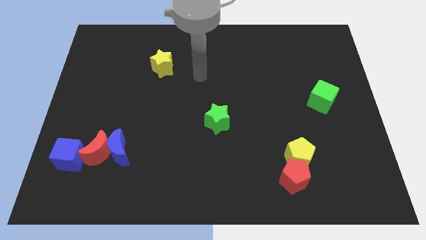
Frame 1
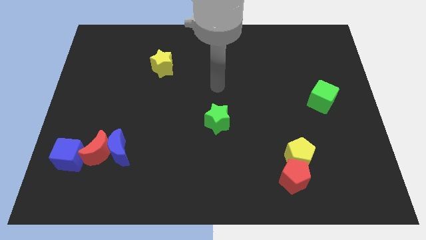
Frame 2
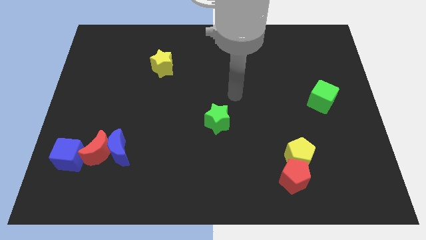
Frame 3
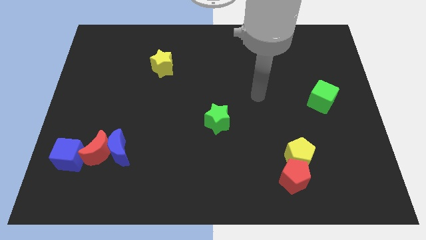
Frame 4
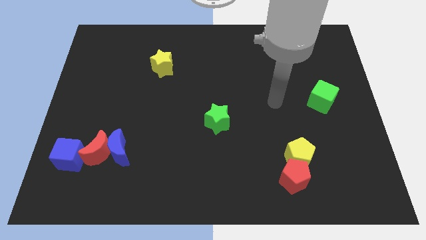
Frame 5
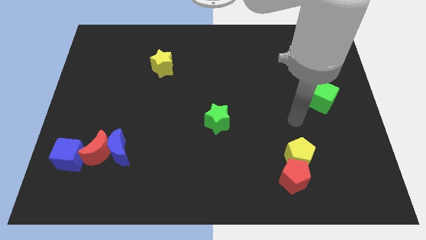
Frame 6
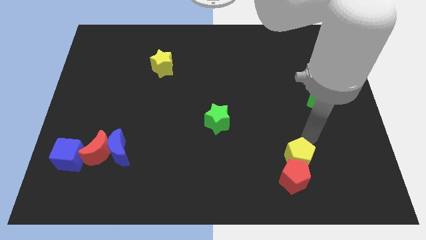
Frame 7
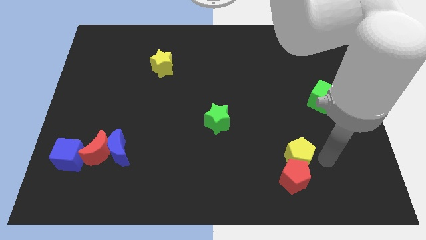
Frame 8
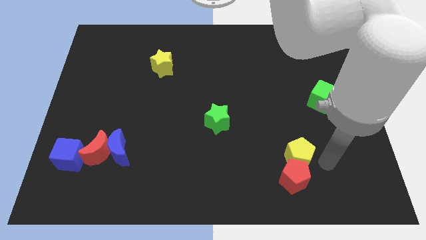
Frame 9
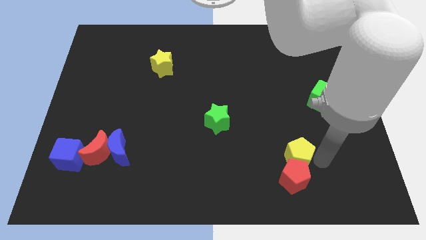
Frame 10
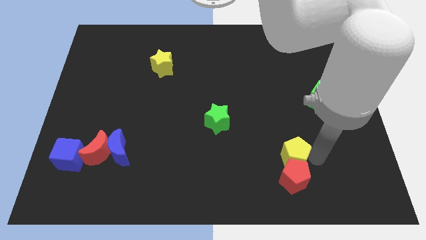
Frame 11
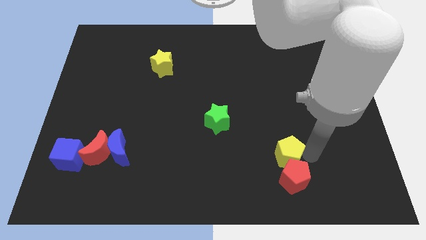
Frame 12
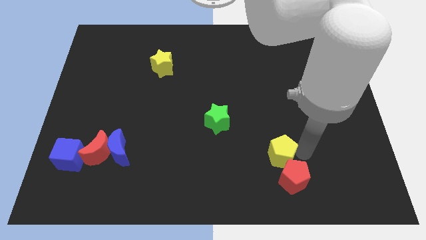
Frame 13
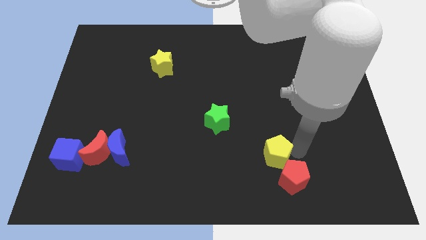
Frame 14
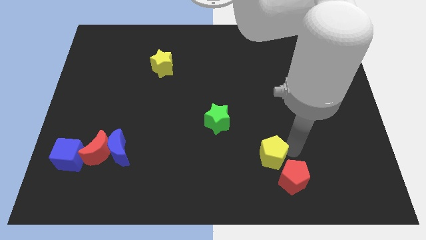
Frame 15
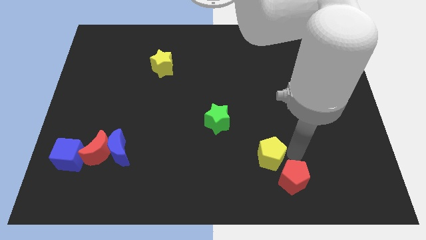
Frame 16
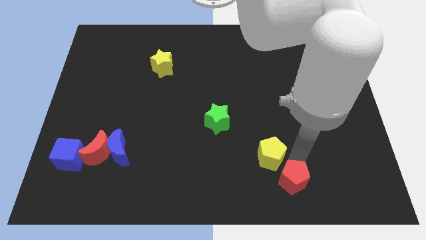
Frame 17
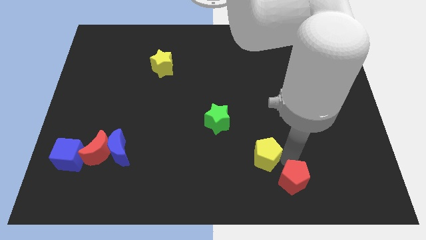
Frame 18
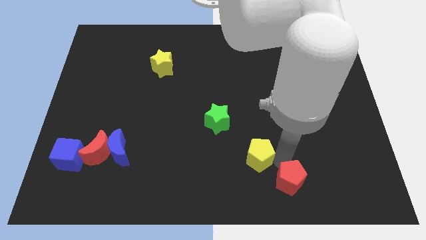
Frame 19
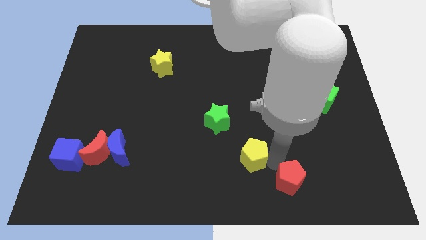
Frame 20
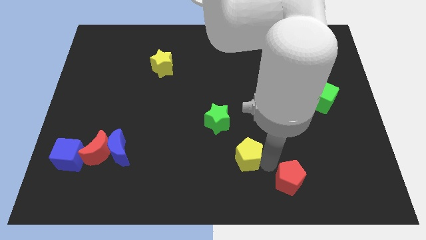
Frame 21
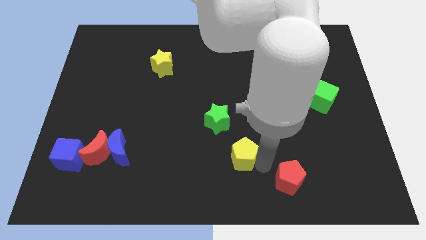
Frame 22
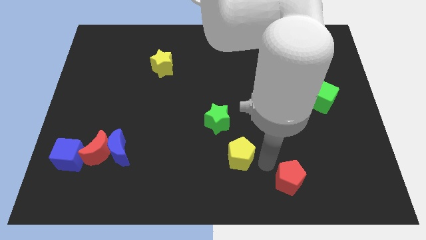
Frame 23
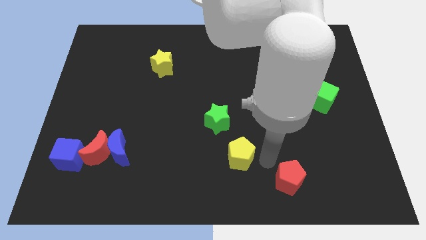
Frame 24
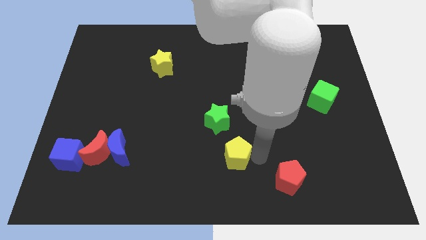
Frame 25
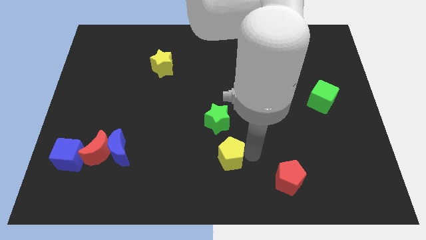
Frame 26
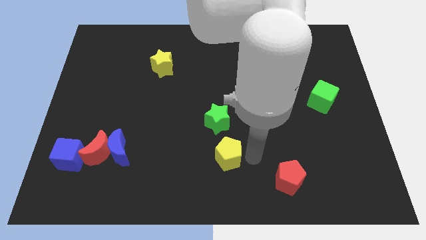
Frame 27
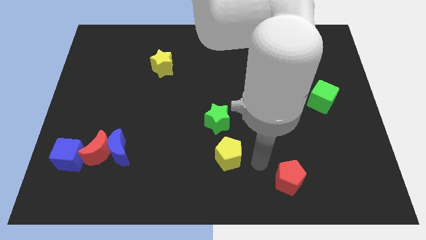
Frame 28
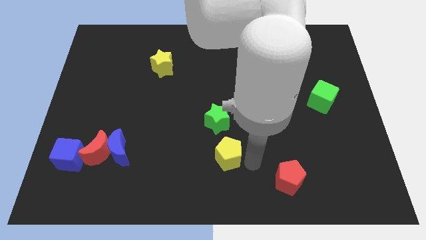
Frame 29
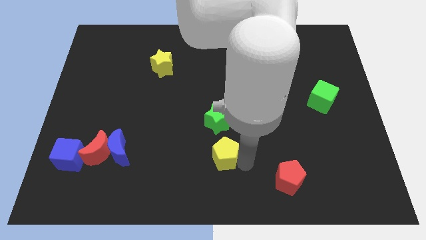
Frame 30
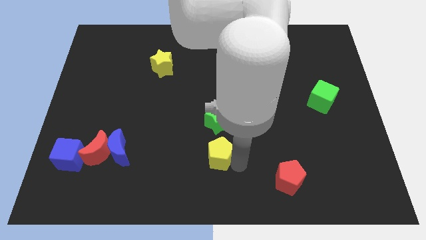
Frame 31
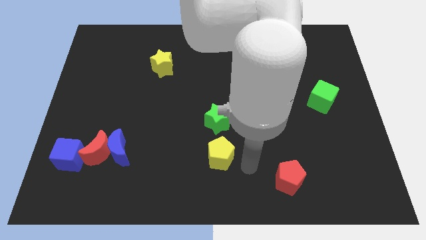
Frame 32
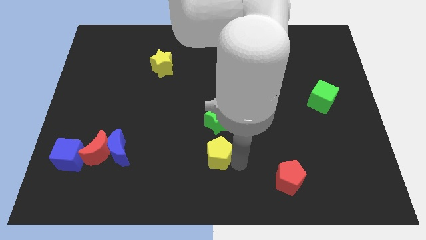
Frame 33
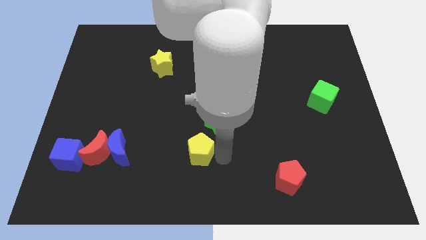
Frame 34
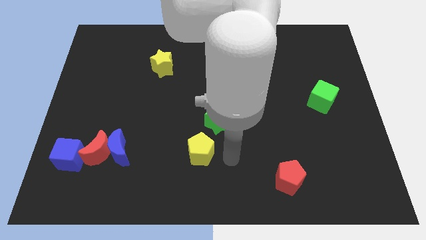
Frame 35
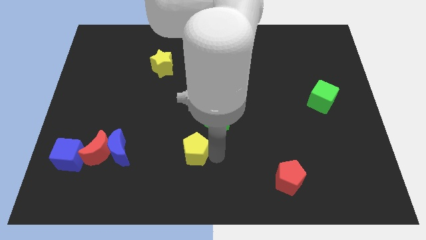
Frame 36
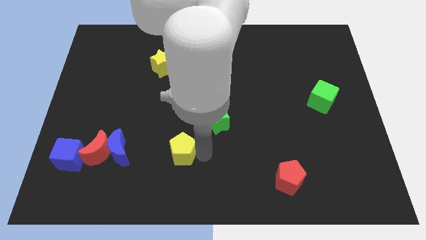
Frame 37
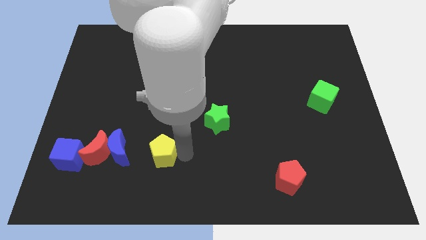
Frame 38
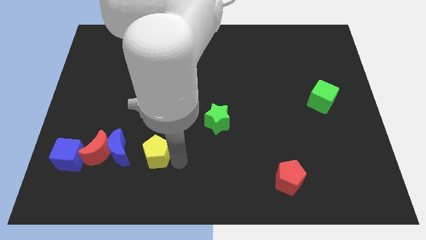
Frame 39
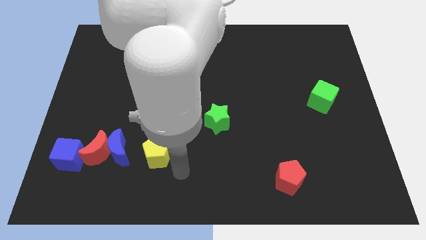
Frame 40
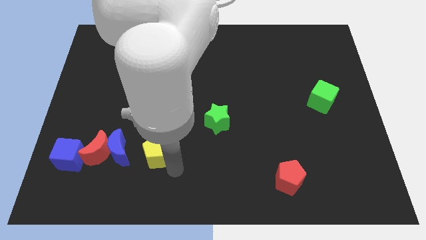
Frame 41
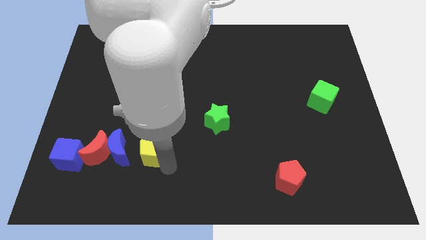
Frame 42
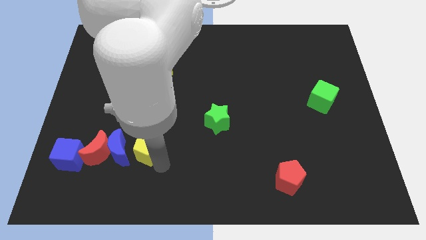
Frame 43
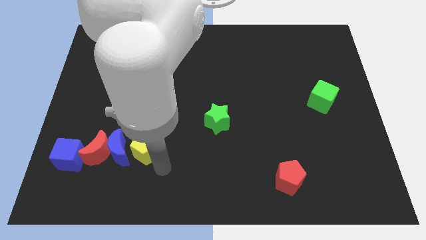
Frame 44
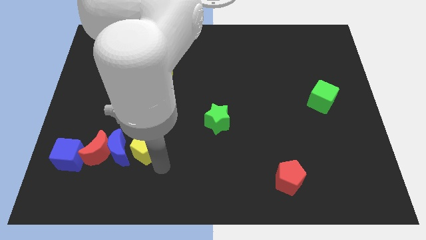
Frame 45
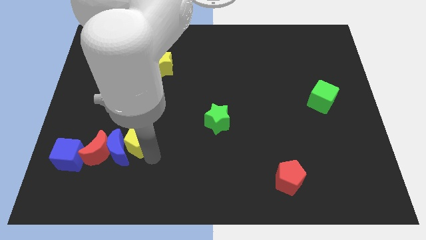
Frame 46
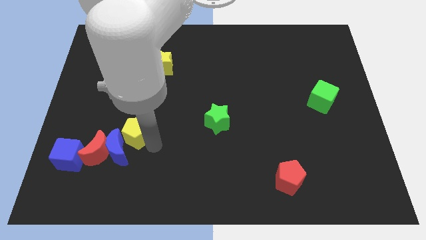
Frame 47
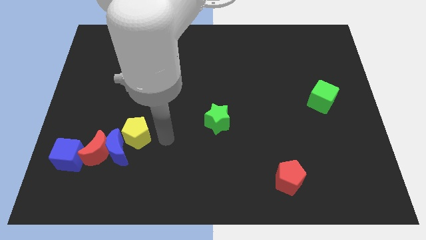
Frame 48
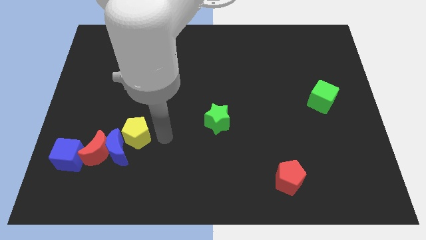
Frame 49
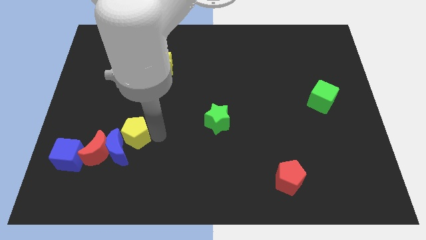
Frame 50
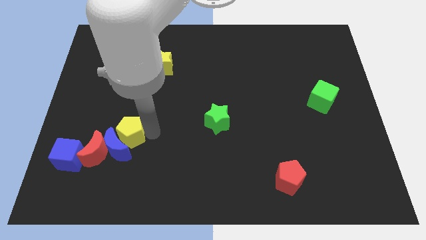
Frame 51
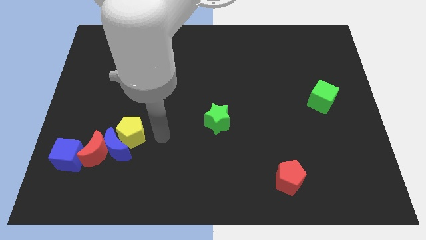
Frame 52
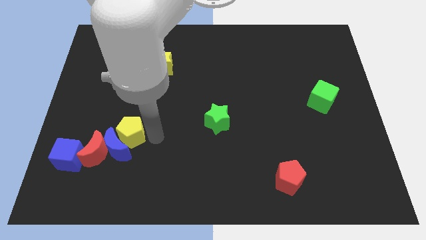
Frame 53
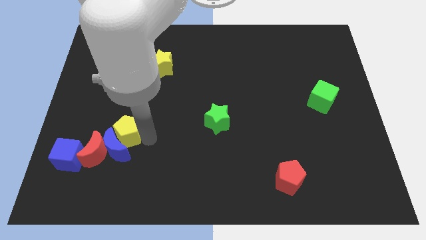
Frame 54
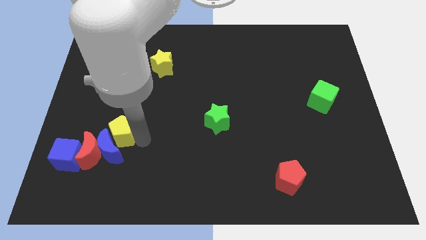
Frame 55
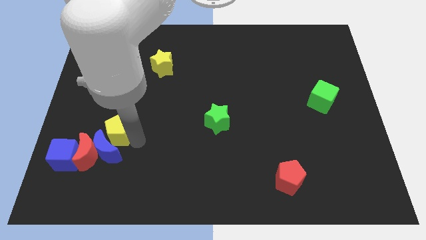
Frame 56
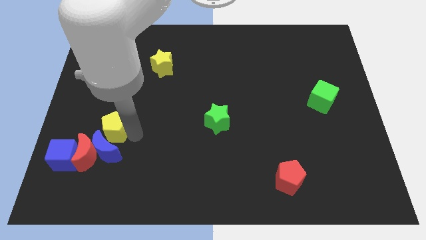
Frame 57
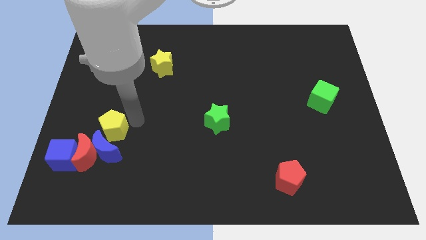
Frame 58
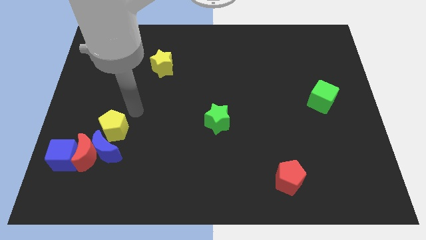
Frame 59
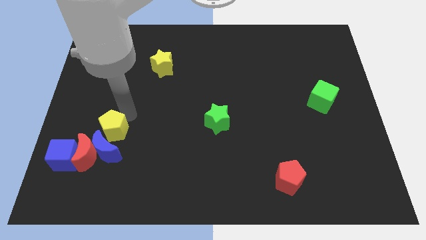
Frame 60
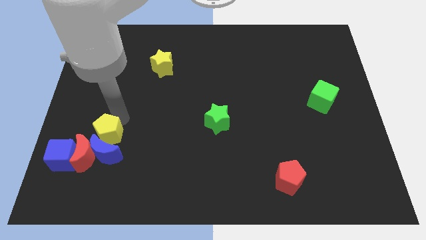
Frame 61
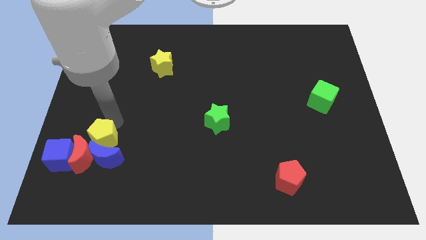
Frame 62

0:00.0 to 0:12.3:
move the yellow pentagon towards the red moon

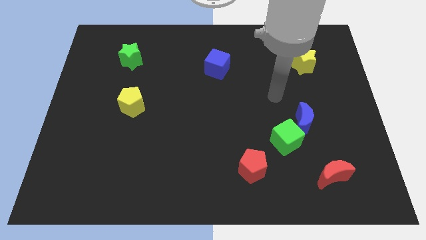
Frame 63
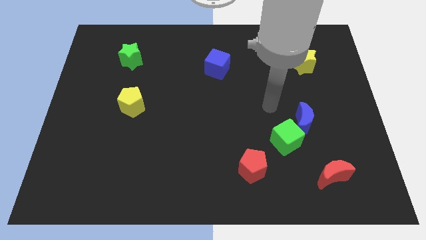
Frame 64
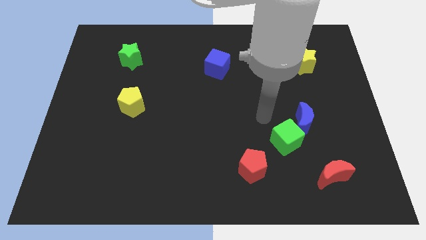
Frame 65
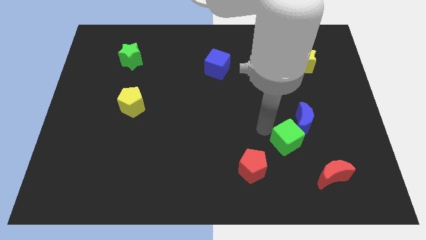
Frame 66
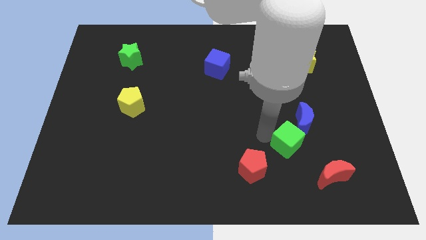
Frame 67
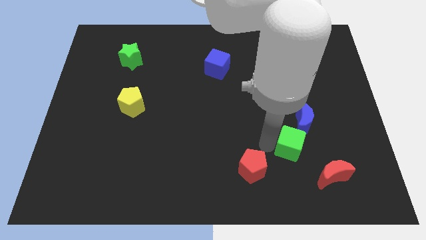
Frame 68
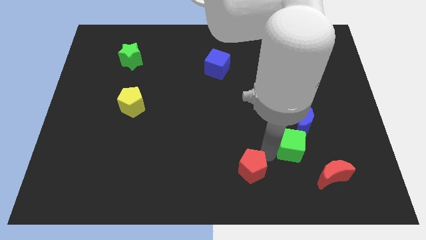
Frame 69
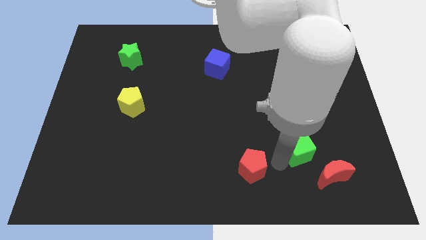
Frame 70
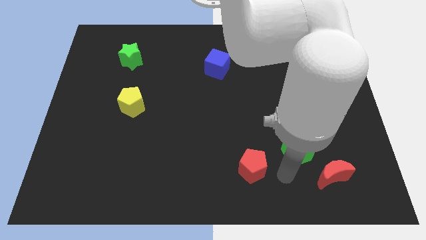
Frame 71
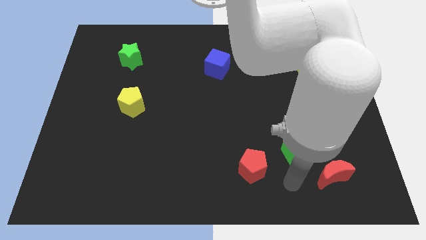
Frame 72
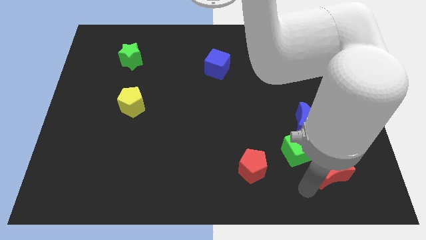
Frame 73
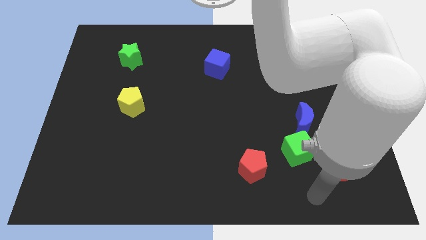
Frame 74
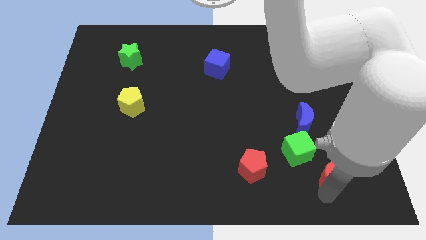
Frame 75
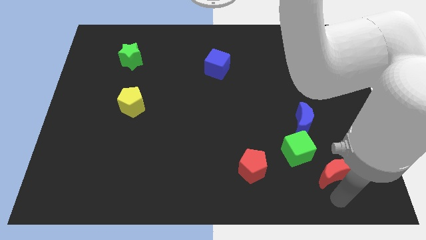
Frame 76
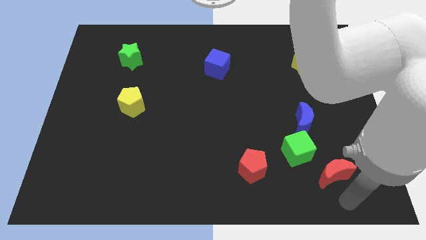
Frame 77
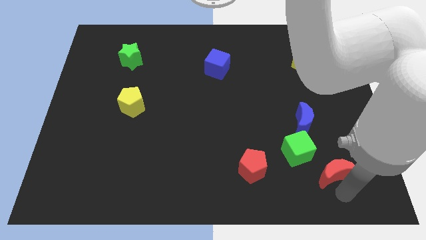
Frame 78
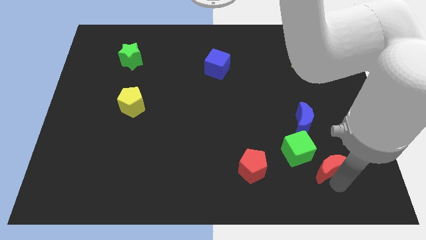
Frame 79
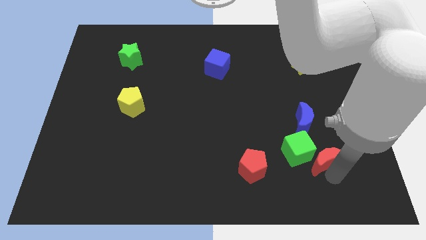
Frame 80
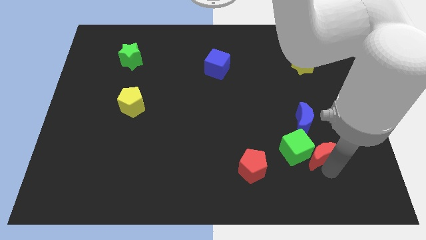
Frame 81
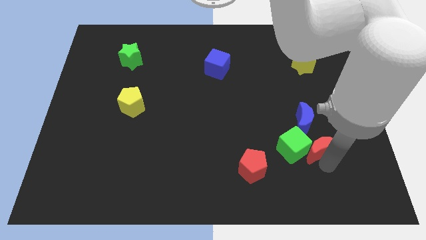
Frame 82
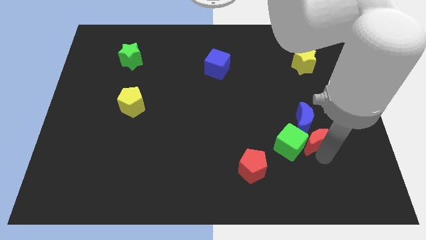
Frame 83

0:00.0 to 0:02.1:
slide the red moon next to the blue moon

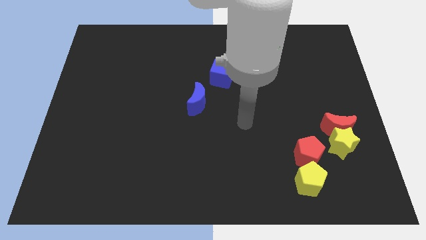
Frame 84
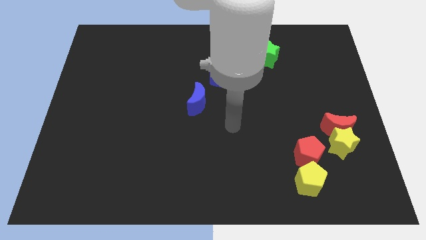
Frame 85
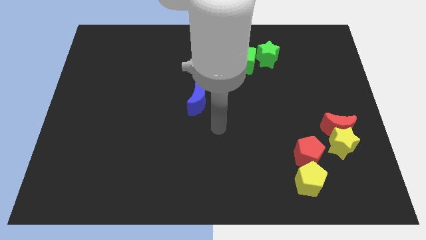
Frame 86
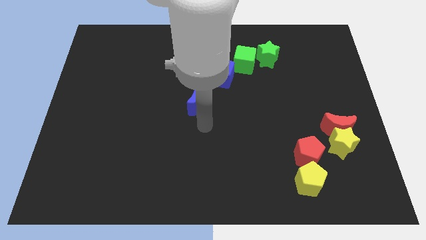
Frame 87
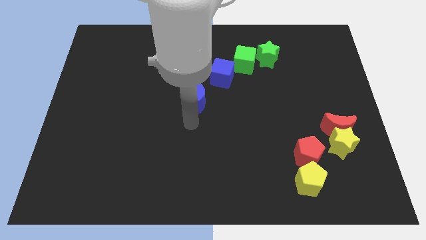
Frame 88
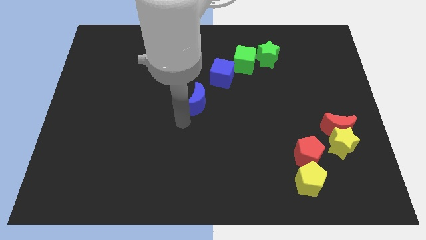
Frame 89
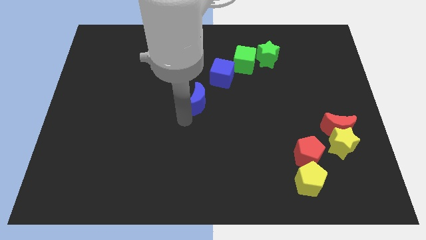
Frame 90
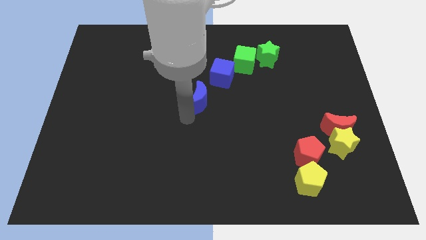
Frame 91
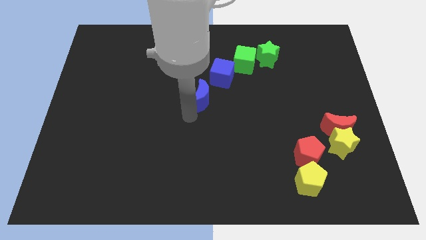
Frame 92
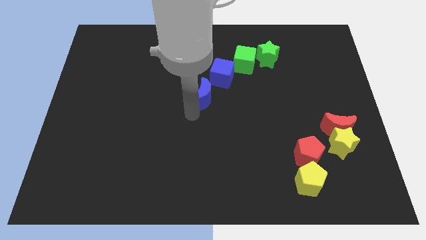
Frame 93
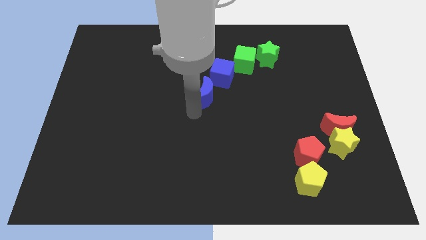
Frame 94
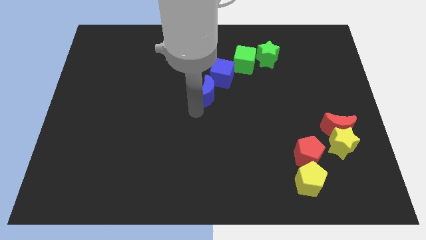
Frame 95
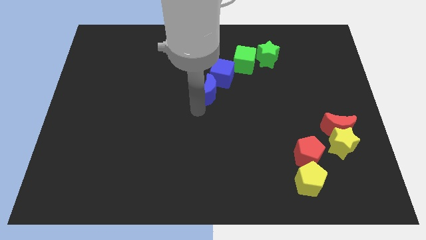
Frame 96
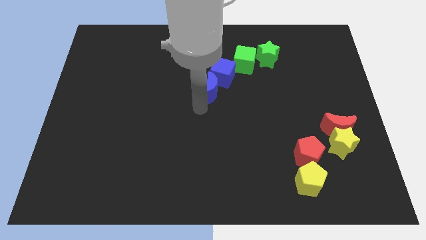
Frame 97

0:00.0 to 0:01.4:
move the blue moon to the blue cube
